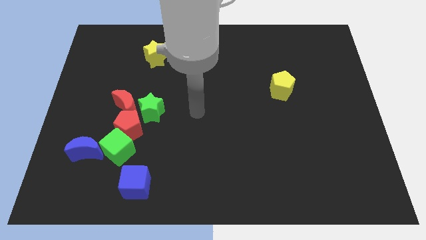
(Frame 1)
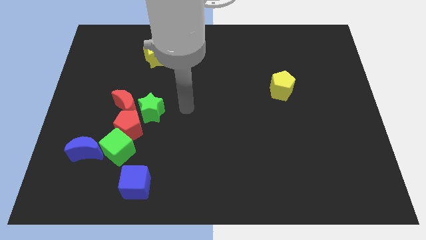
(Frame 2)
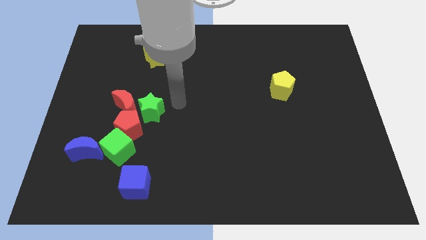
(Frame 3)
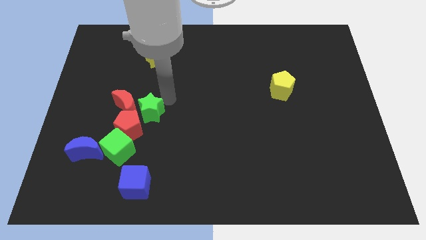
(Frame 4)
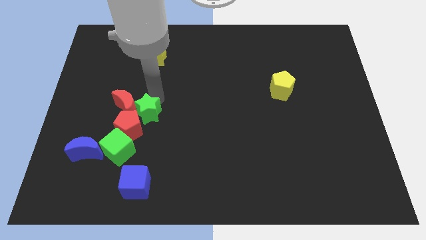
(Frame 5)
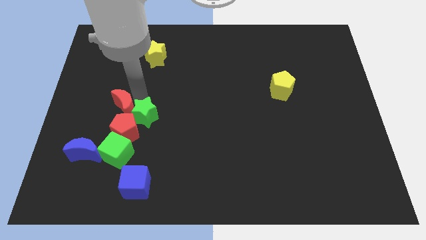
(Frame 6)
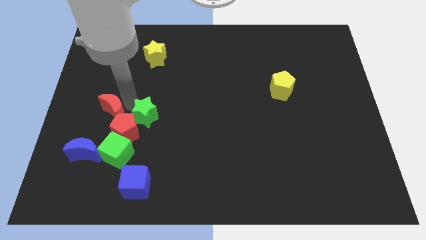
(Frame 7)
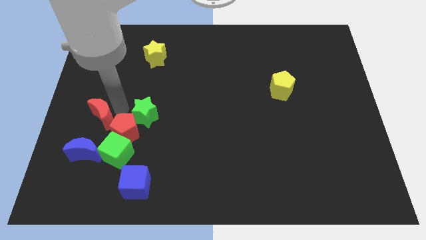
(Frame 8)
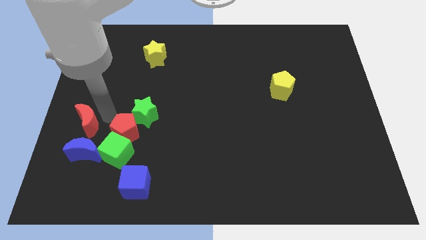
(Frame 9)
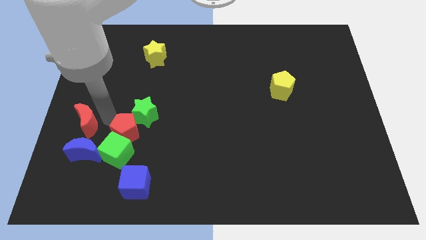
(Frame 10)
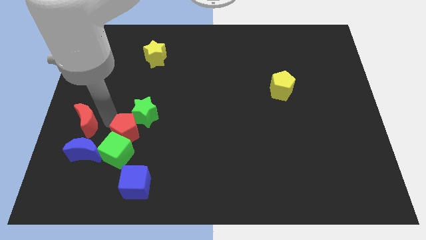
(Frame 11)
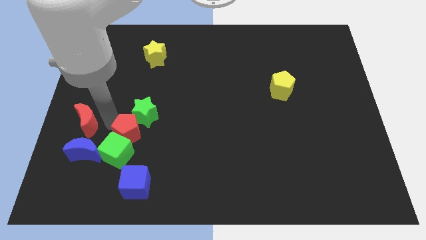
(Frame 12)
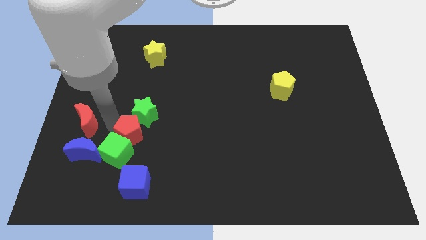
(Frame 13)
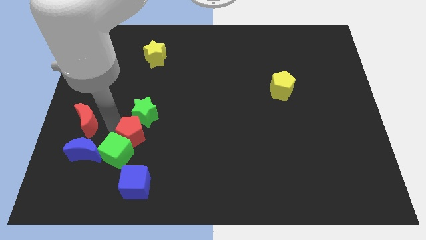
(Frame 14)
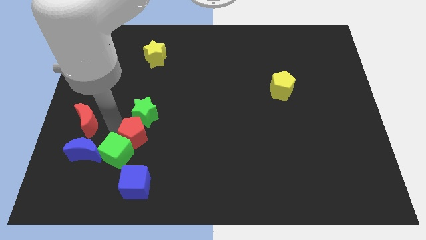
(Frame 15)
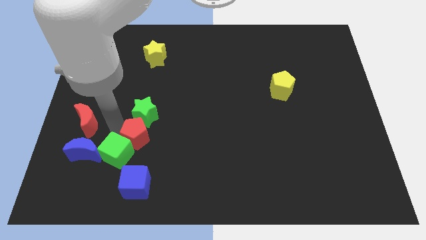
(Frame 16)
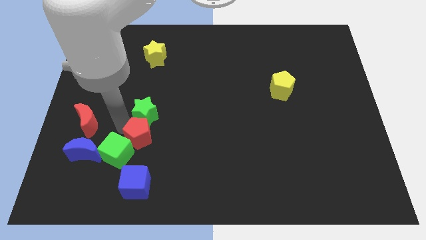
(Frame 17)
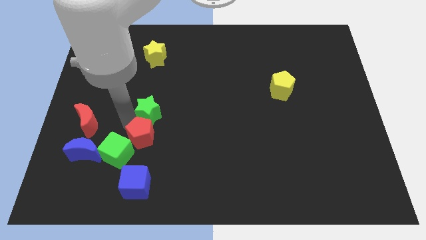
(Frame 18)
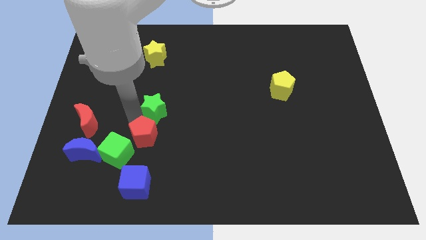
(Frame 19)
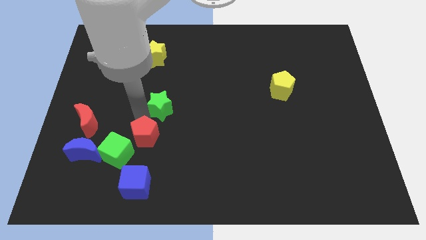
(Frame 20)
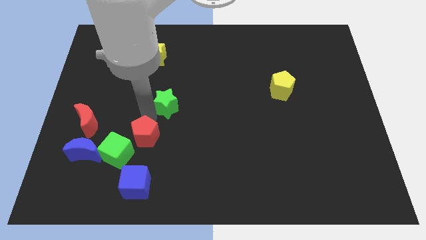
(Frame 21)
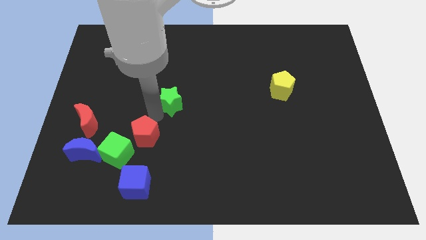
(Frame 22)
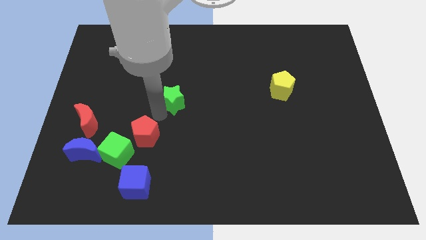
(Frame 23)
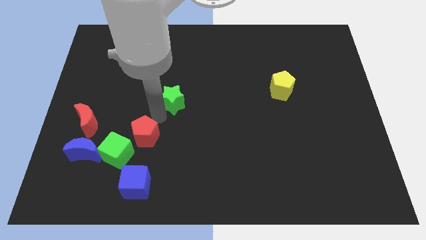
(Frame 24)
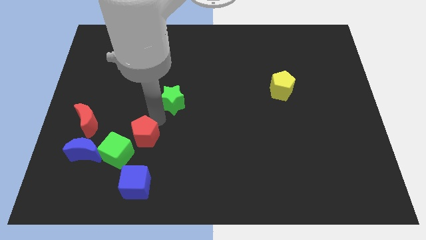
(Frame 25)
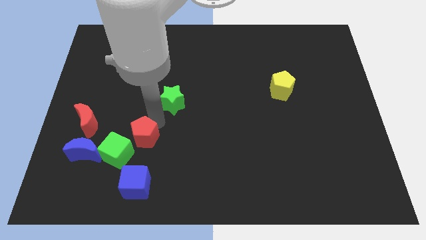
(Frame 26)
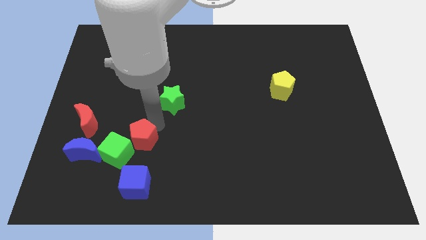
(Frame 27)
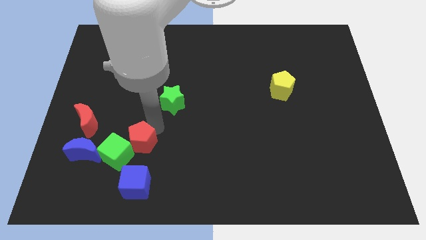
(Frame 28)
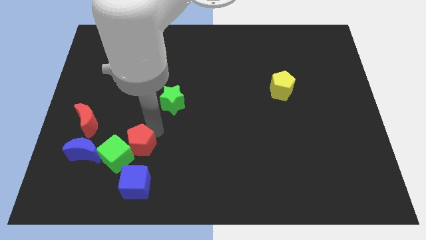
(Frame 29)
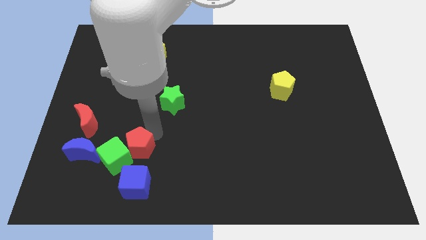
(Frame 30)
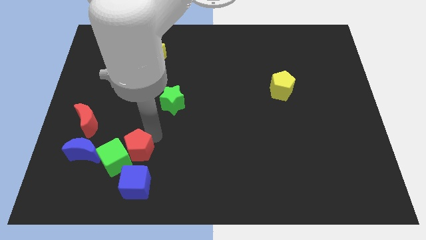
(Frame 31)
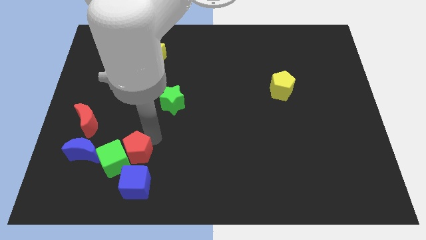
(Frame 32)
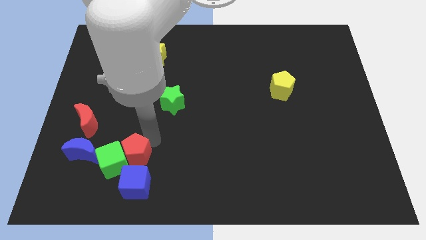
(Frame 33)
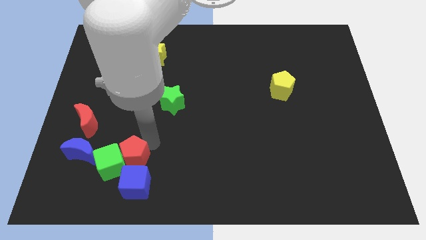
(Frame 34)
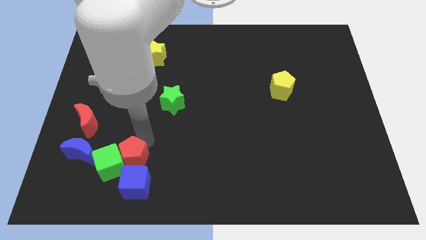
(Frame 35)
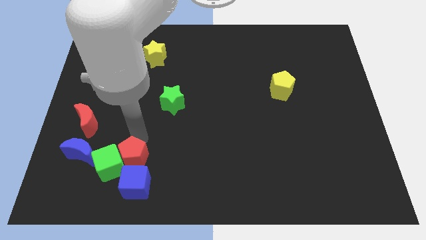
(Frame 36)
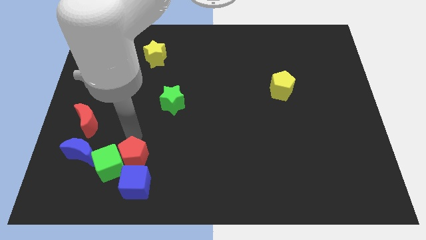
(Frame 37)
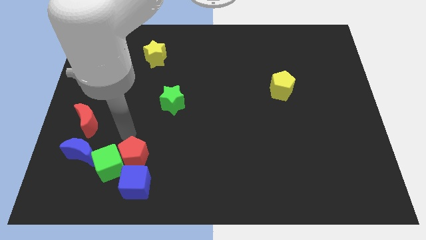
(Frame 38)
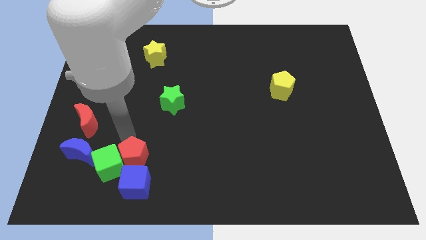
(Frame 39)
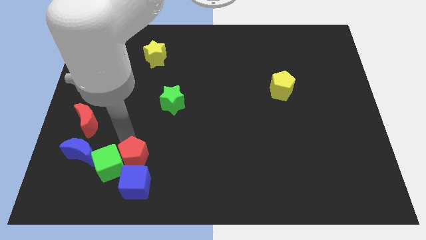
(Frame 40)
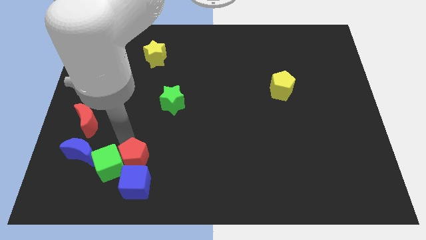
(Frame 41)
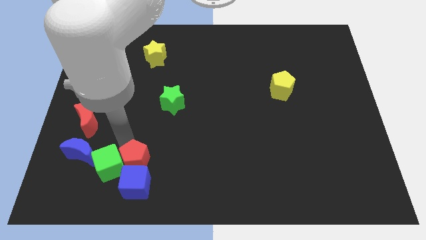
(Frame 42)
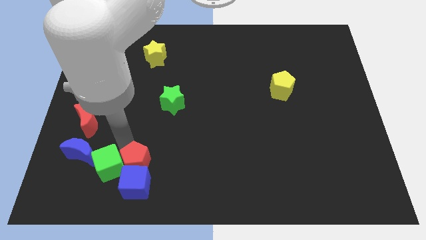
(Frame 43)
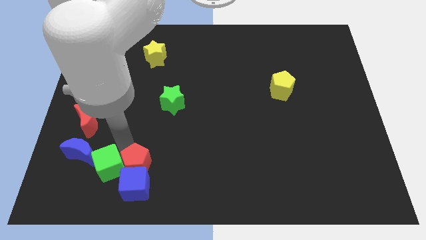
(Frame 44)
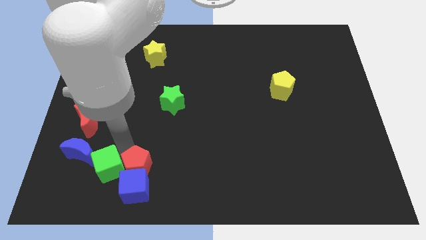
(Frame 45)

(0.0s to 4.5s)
pull the red pentagon apart from the green cube, green star, and red moon

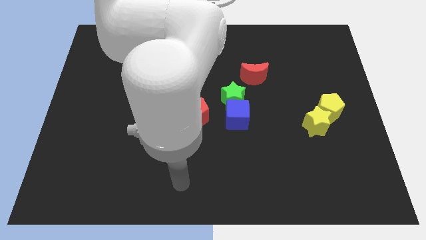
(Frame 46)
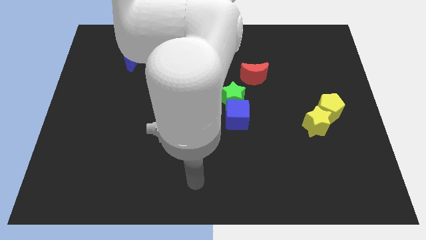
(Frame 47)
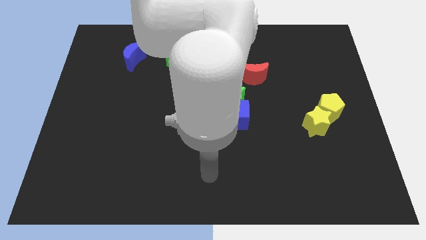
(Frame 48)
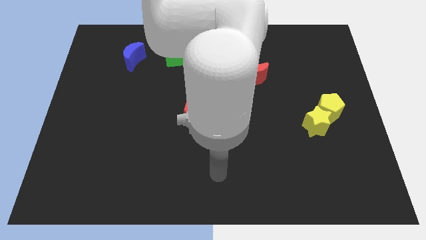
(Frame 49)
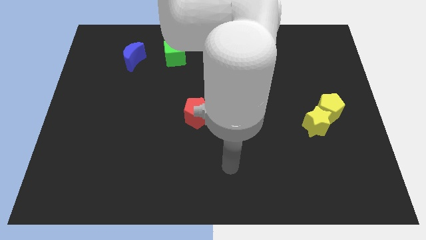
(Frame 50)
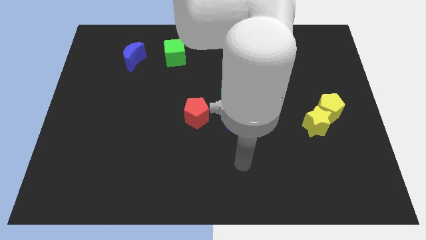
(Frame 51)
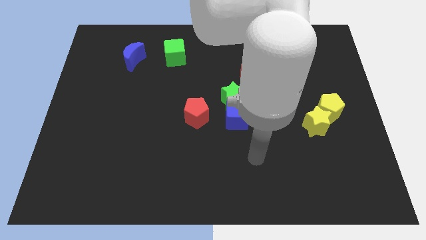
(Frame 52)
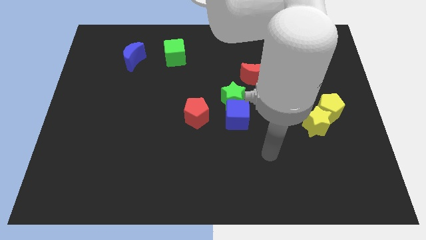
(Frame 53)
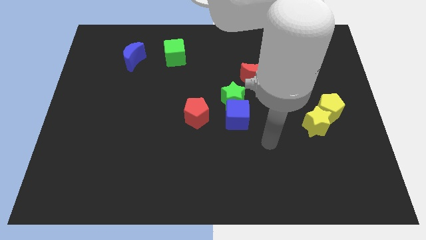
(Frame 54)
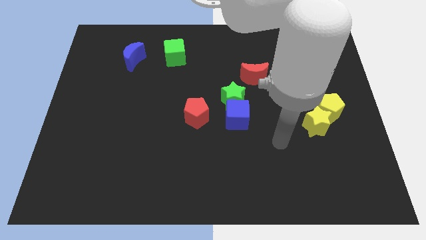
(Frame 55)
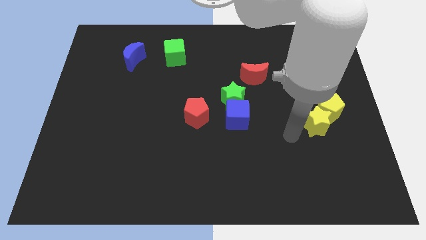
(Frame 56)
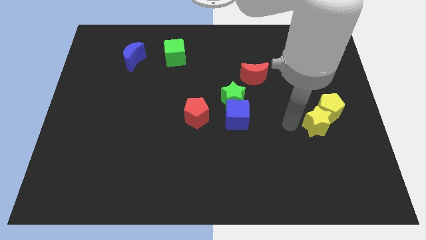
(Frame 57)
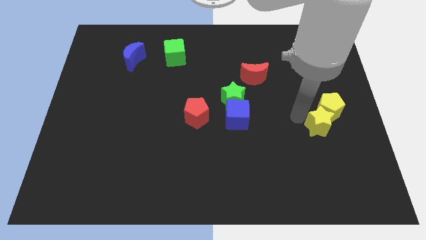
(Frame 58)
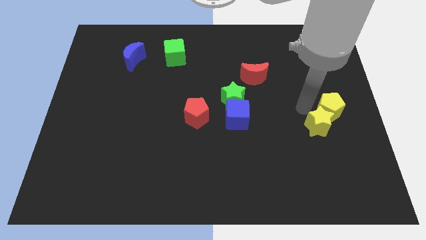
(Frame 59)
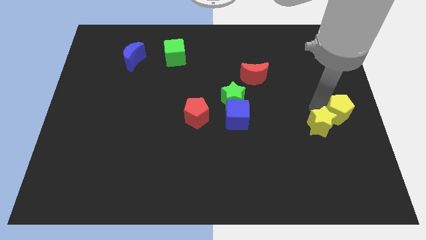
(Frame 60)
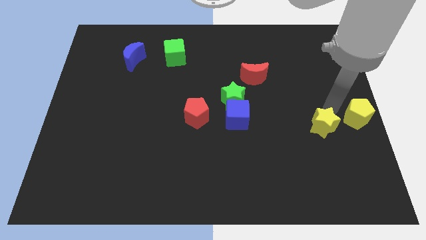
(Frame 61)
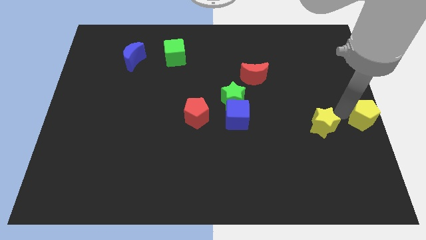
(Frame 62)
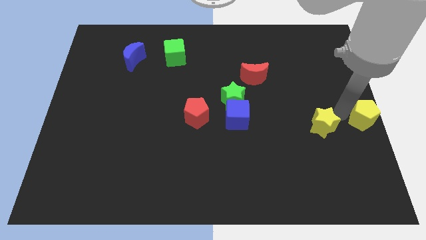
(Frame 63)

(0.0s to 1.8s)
pull the yellow star apart from the yellow pentagon

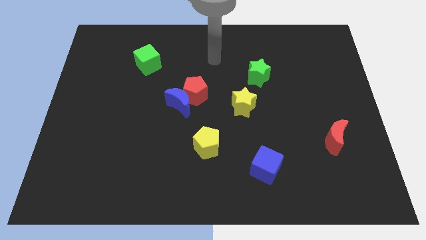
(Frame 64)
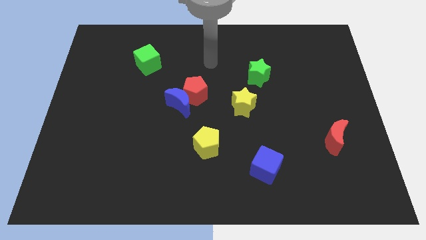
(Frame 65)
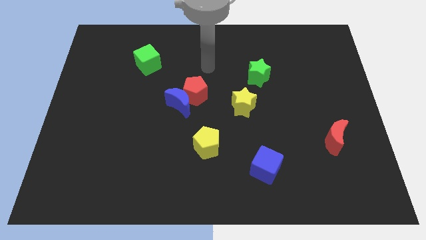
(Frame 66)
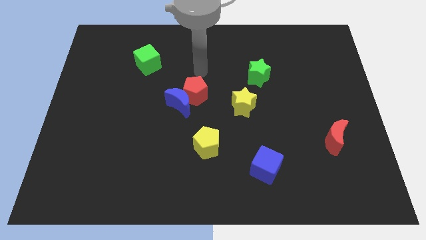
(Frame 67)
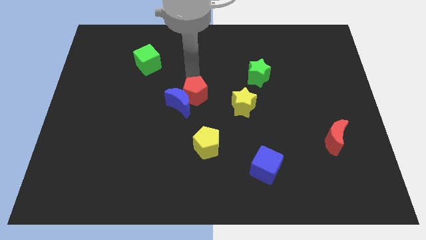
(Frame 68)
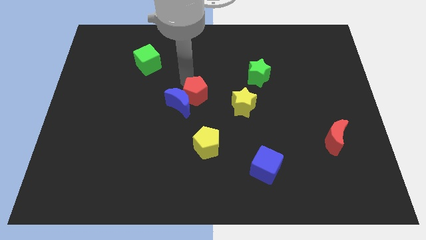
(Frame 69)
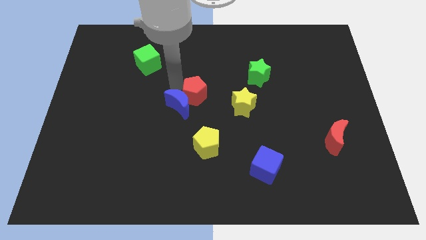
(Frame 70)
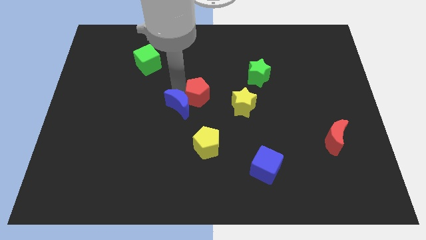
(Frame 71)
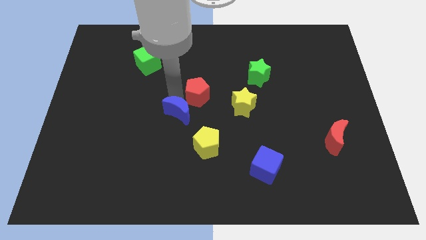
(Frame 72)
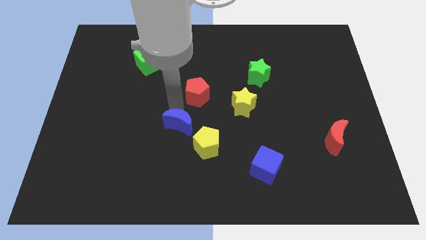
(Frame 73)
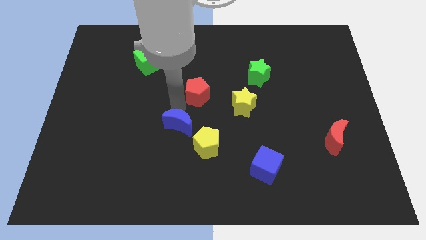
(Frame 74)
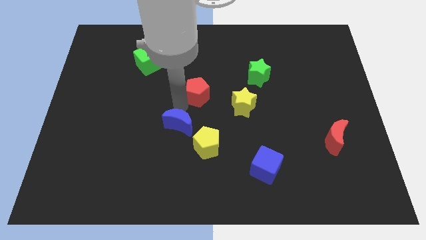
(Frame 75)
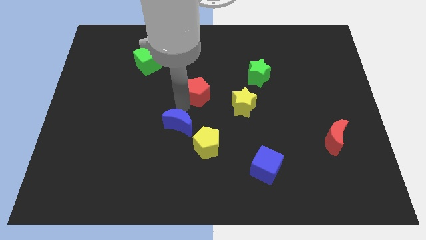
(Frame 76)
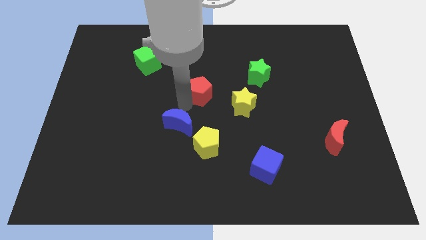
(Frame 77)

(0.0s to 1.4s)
separate the red pentagon from the blue moon

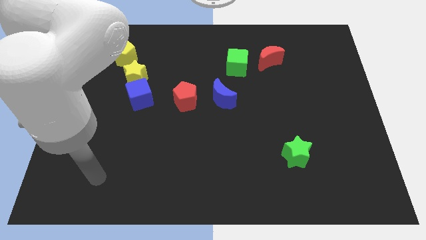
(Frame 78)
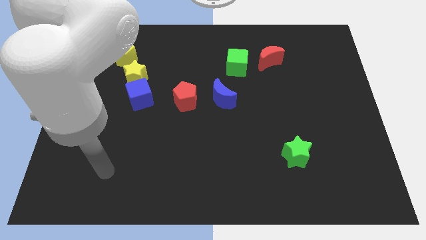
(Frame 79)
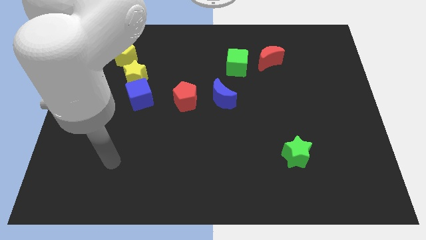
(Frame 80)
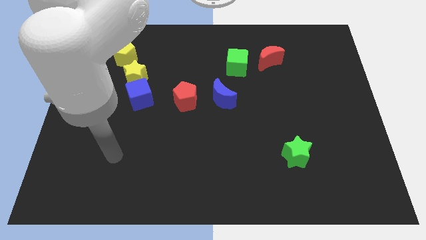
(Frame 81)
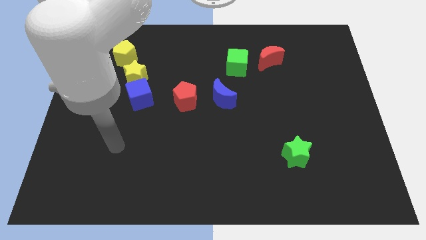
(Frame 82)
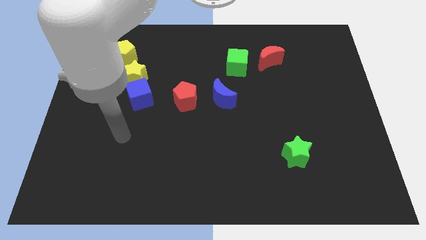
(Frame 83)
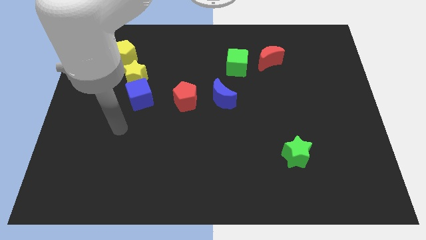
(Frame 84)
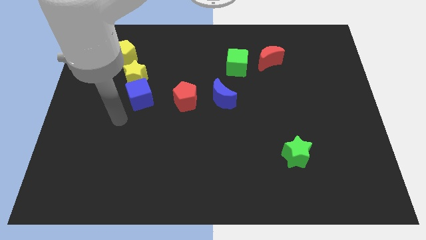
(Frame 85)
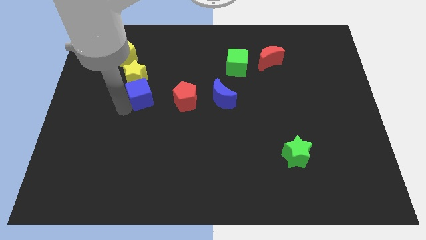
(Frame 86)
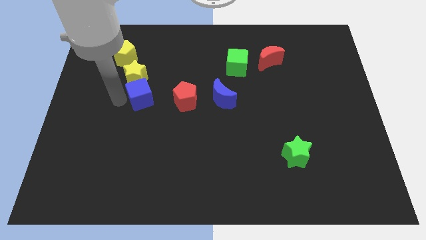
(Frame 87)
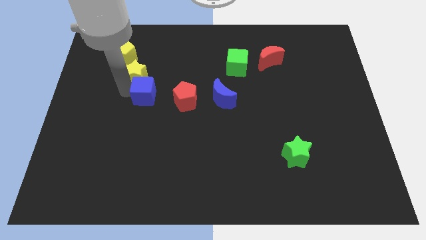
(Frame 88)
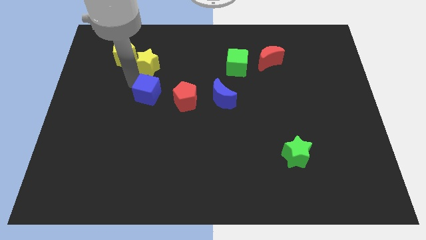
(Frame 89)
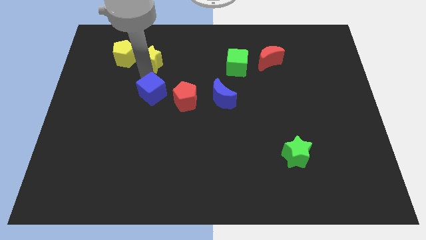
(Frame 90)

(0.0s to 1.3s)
move the blue cube away from the yellow star

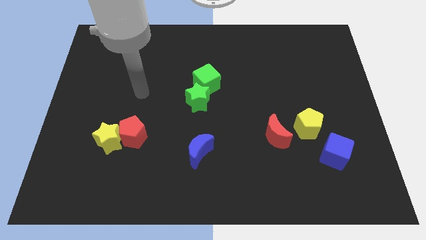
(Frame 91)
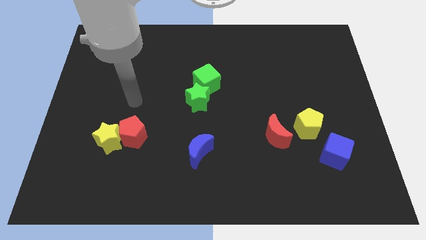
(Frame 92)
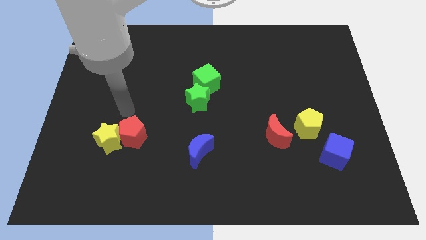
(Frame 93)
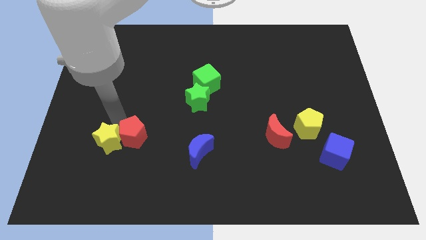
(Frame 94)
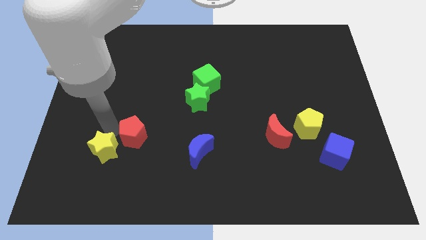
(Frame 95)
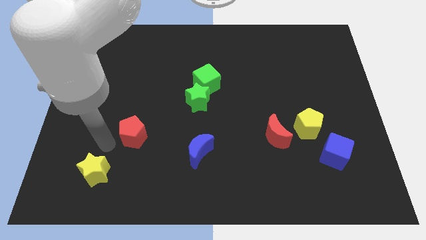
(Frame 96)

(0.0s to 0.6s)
separate the red pentagon from the yellow star
